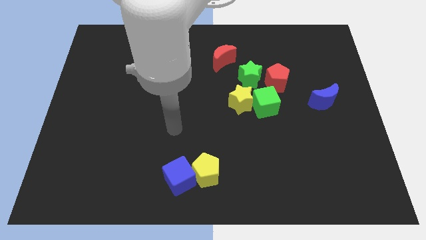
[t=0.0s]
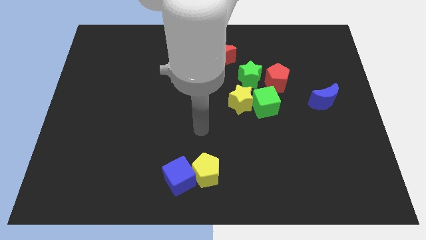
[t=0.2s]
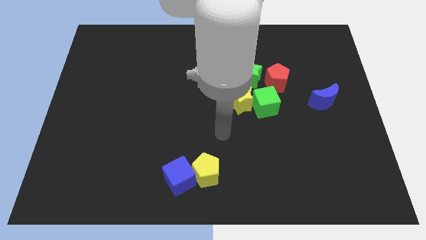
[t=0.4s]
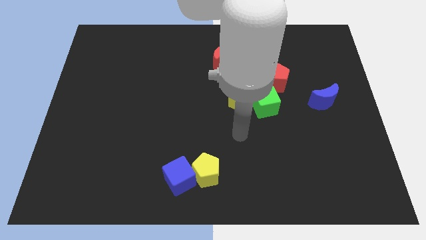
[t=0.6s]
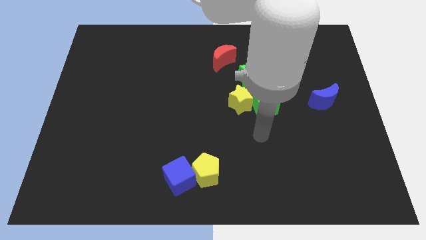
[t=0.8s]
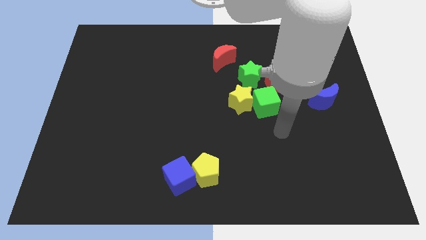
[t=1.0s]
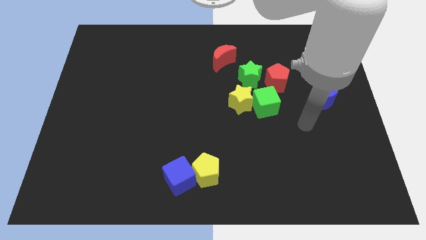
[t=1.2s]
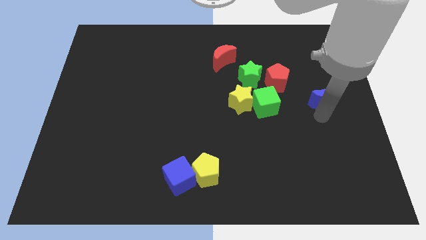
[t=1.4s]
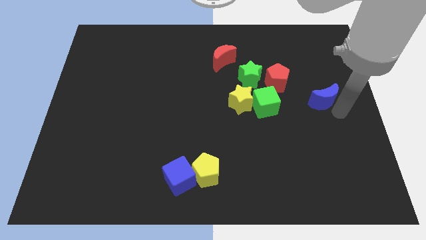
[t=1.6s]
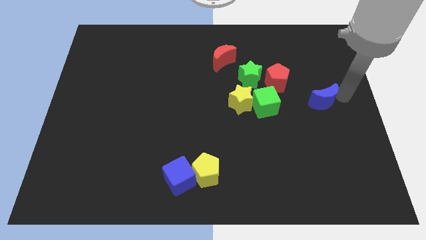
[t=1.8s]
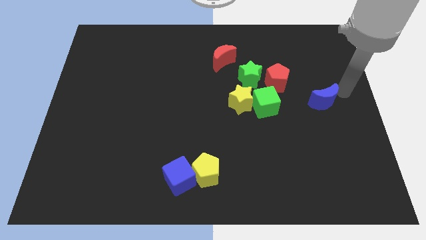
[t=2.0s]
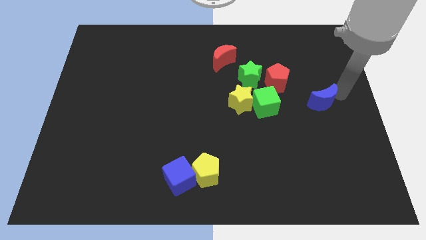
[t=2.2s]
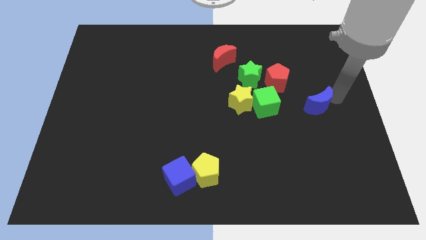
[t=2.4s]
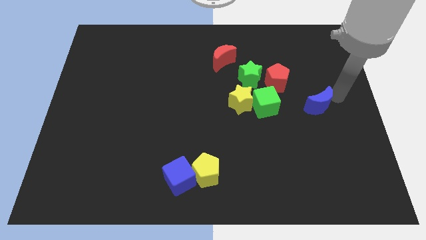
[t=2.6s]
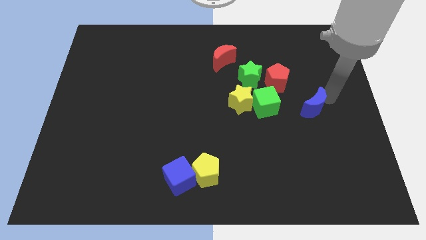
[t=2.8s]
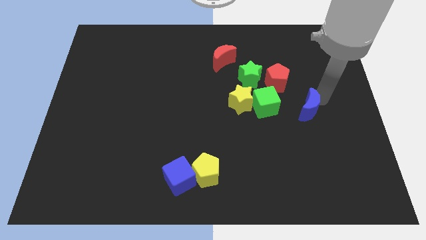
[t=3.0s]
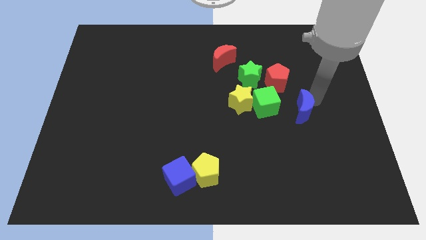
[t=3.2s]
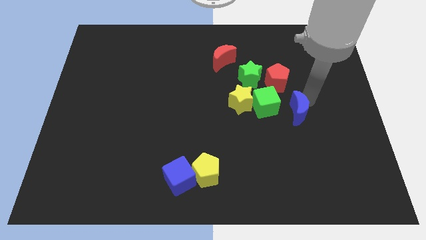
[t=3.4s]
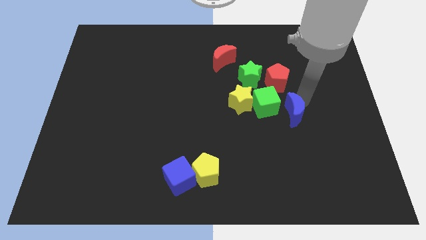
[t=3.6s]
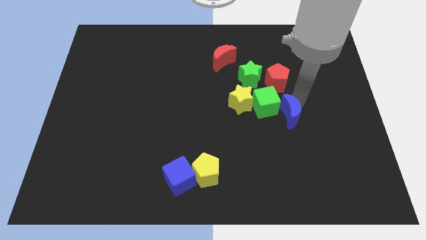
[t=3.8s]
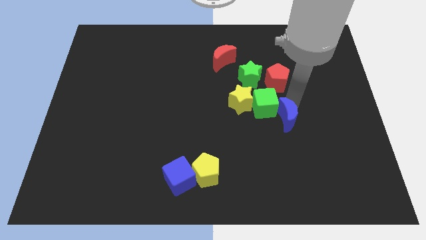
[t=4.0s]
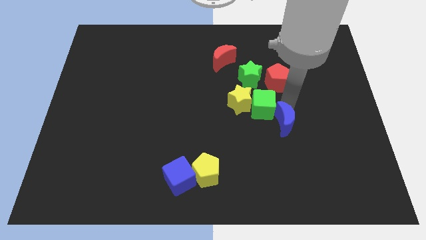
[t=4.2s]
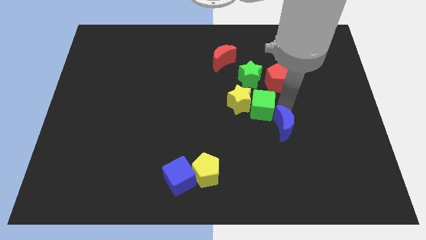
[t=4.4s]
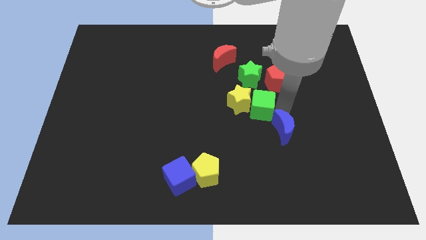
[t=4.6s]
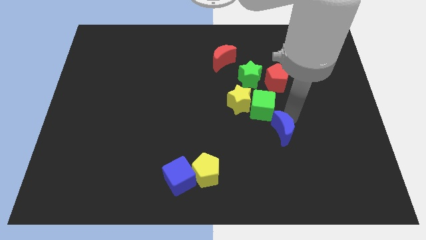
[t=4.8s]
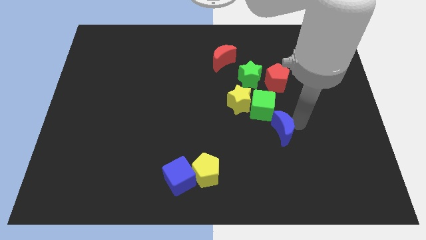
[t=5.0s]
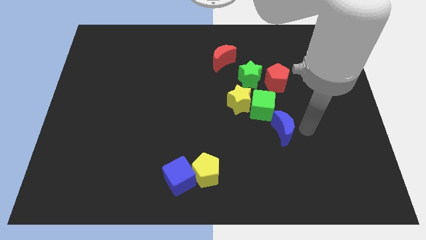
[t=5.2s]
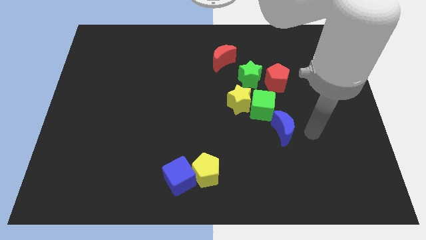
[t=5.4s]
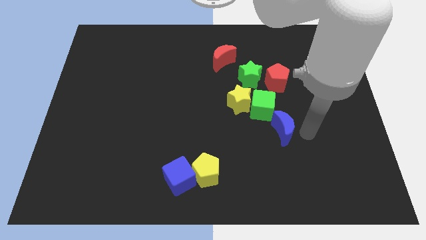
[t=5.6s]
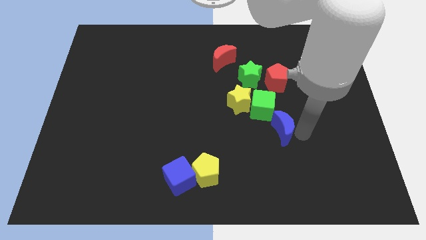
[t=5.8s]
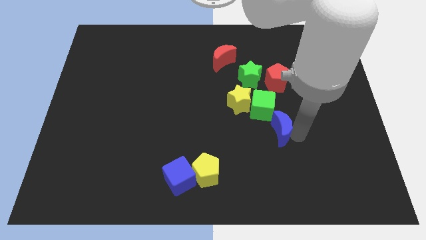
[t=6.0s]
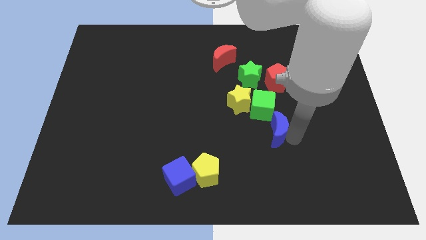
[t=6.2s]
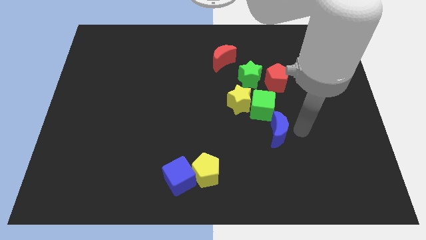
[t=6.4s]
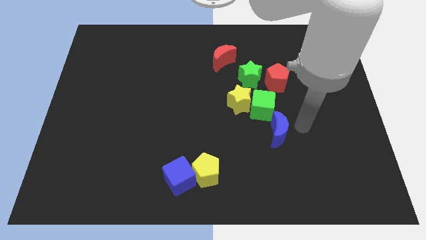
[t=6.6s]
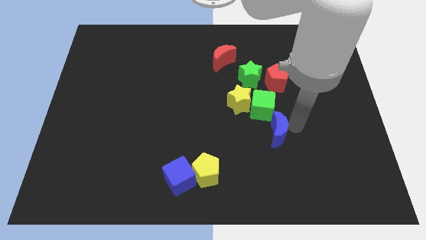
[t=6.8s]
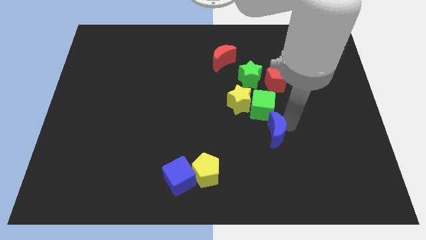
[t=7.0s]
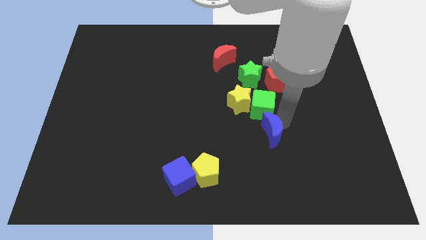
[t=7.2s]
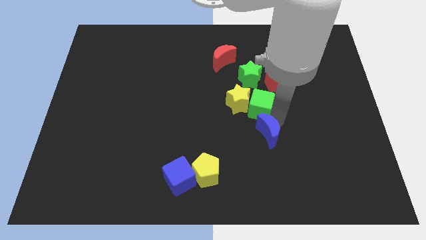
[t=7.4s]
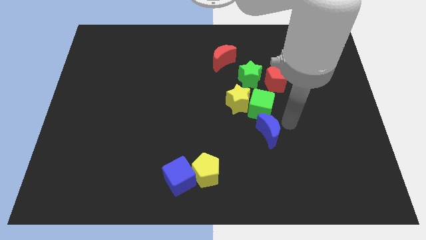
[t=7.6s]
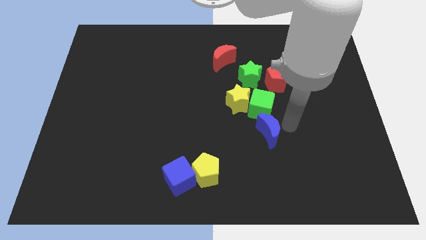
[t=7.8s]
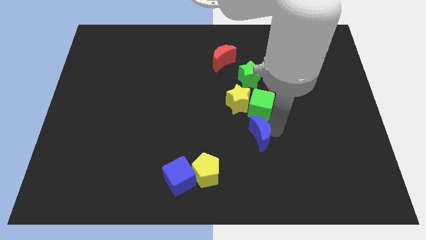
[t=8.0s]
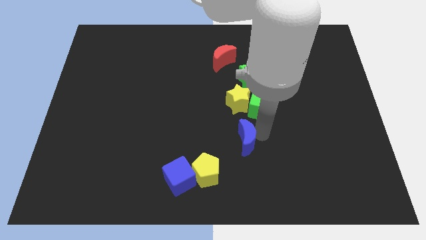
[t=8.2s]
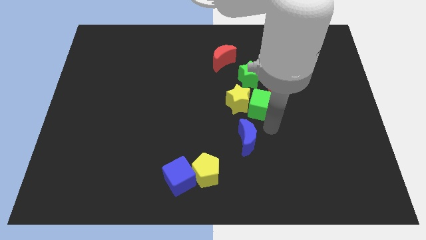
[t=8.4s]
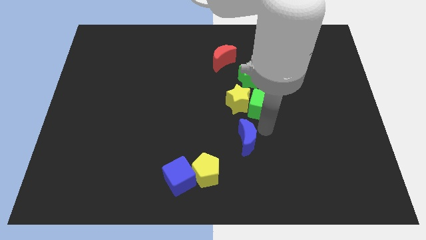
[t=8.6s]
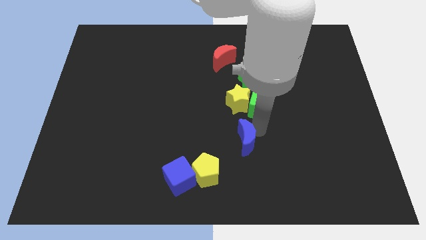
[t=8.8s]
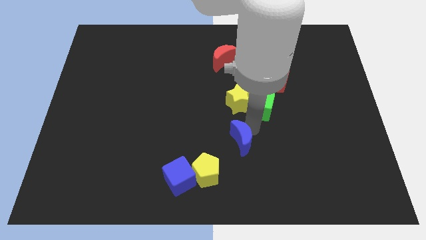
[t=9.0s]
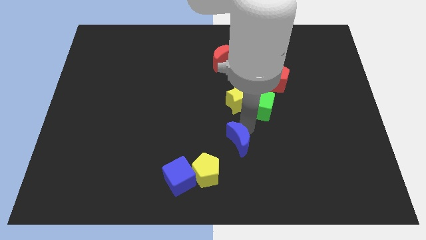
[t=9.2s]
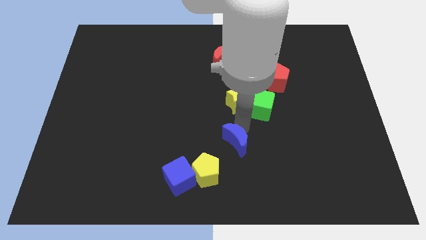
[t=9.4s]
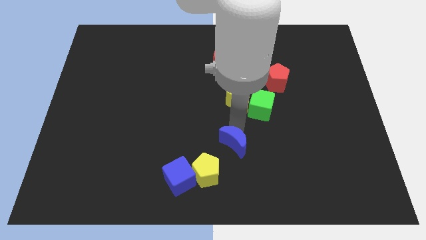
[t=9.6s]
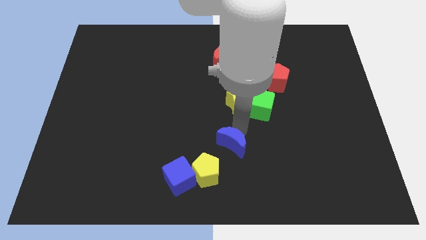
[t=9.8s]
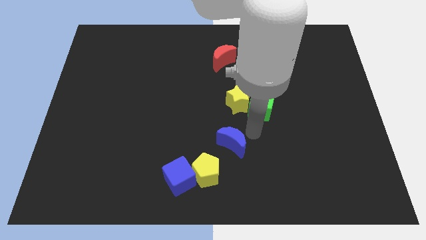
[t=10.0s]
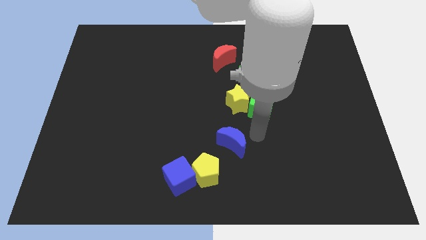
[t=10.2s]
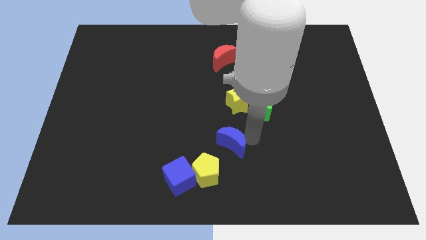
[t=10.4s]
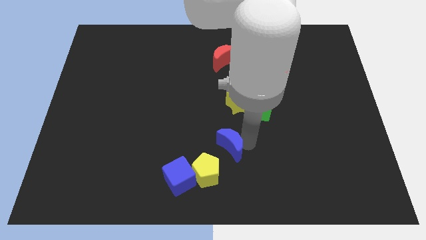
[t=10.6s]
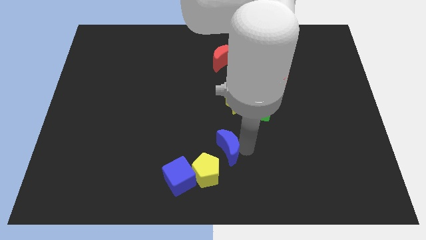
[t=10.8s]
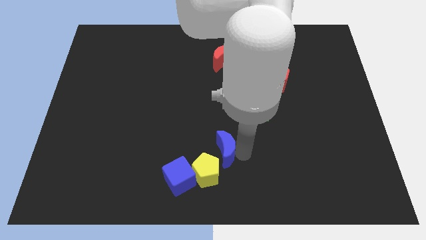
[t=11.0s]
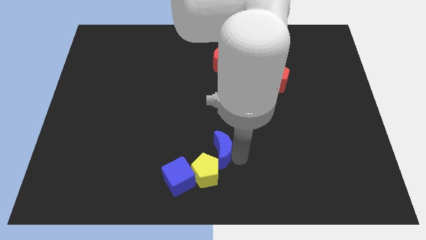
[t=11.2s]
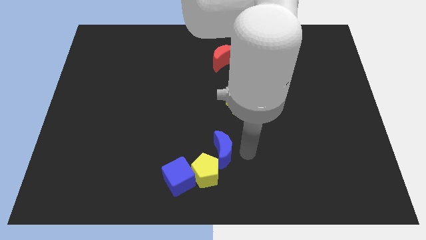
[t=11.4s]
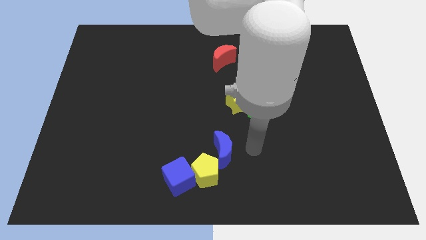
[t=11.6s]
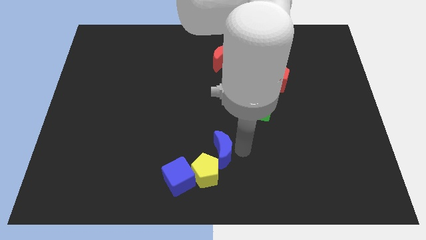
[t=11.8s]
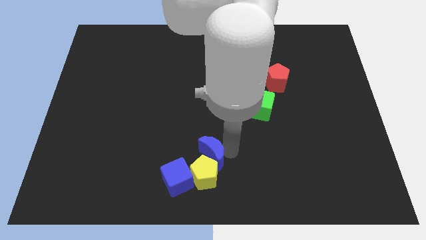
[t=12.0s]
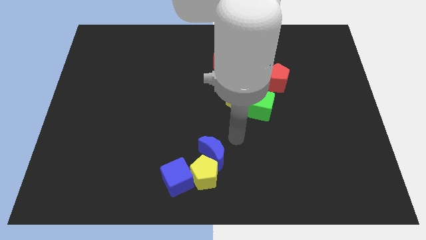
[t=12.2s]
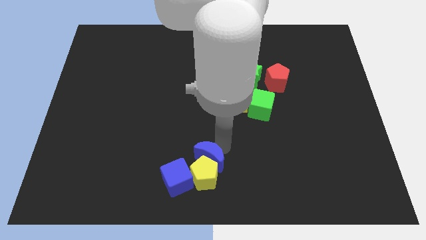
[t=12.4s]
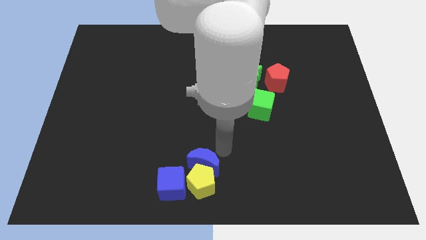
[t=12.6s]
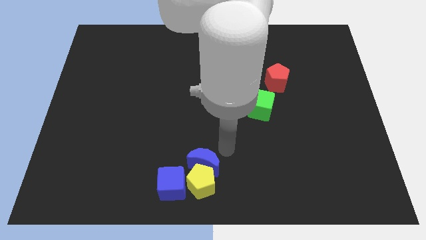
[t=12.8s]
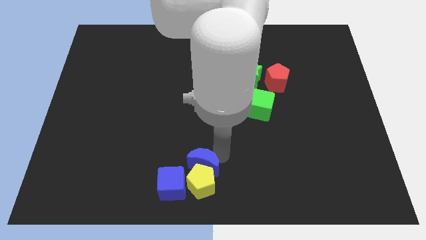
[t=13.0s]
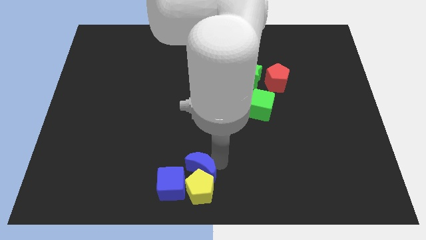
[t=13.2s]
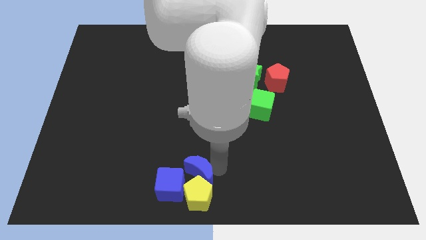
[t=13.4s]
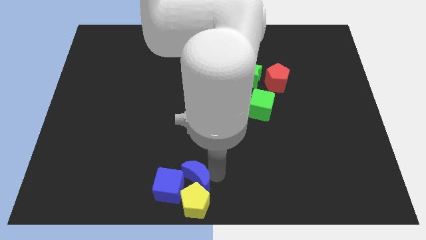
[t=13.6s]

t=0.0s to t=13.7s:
put the blue moon to the blue cube
